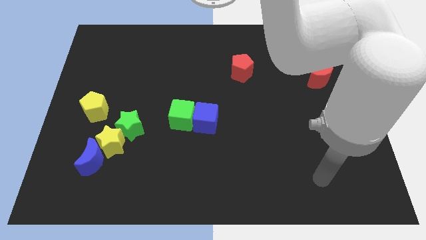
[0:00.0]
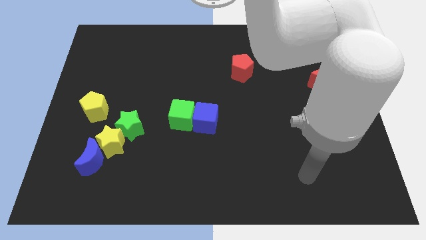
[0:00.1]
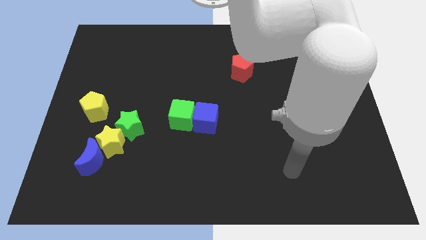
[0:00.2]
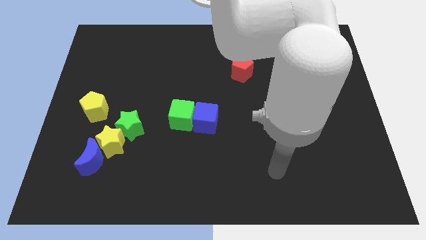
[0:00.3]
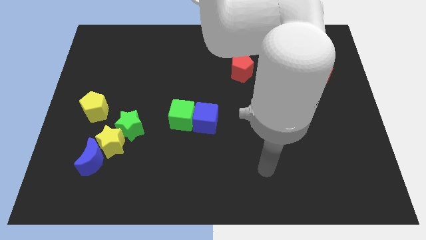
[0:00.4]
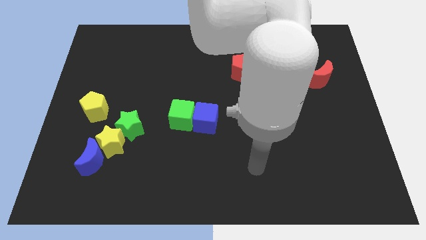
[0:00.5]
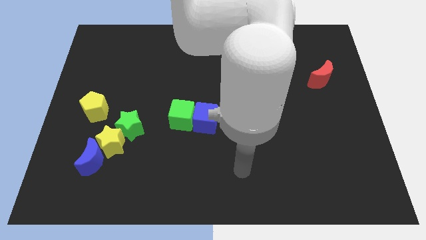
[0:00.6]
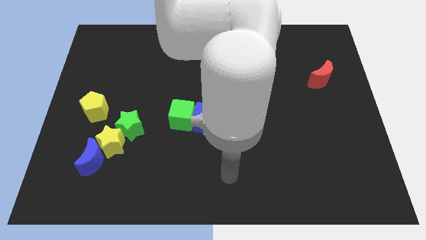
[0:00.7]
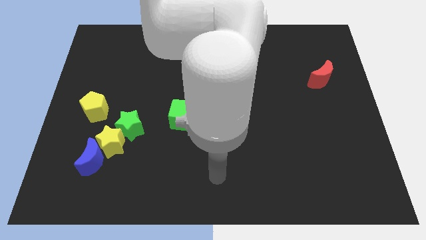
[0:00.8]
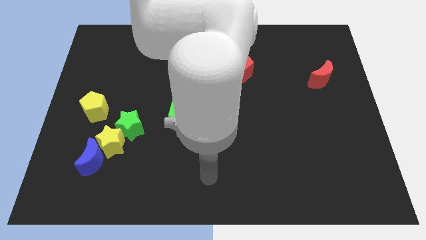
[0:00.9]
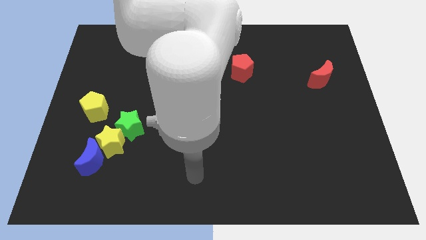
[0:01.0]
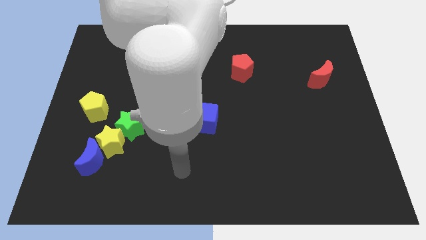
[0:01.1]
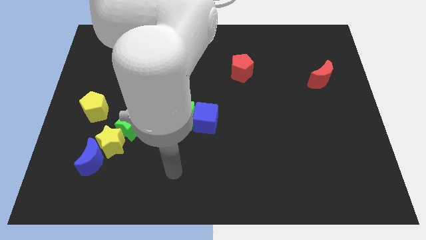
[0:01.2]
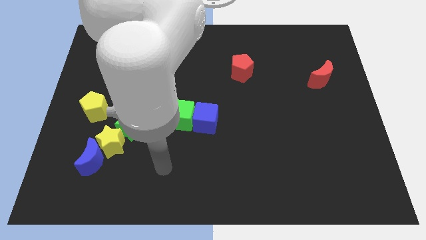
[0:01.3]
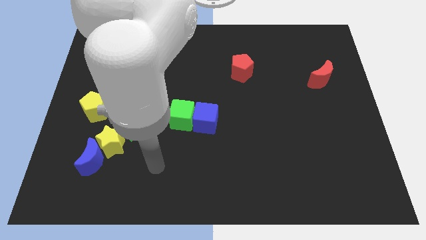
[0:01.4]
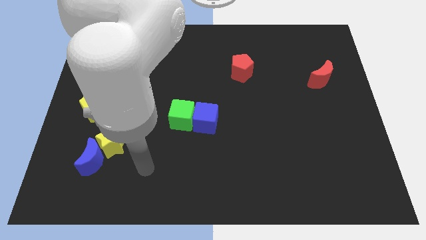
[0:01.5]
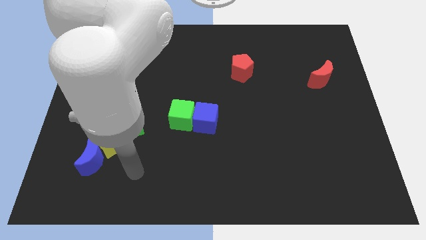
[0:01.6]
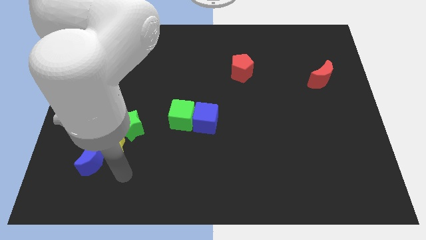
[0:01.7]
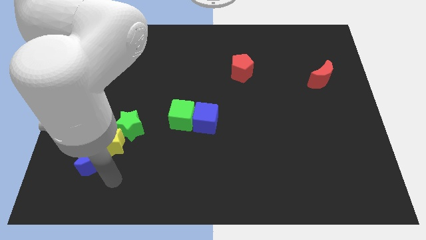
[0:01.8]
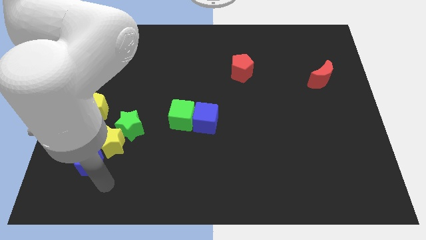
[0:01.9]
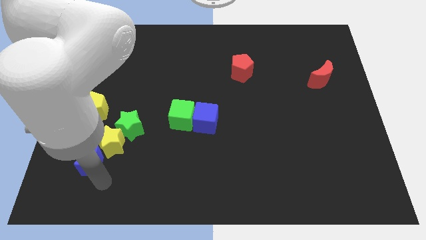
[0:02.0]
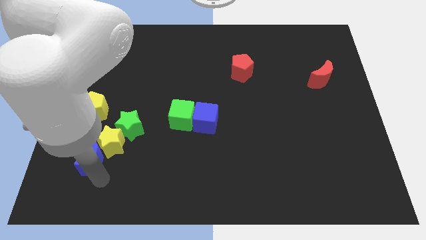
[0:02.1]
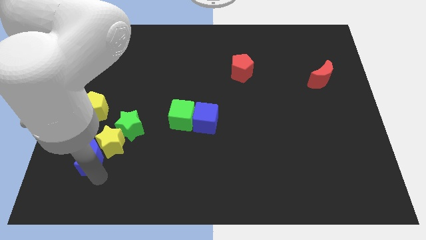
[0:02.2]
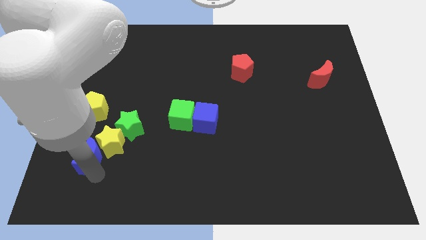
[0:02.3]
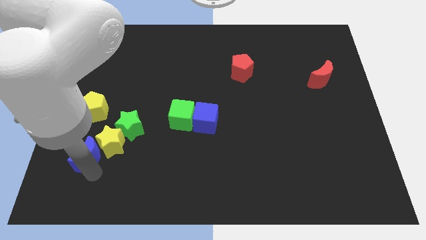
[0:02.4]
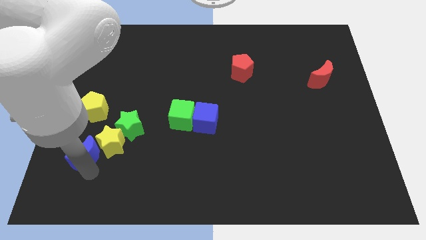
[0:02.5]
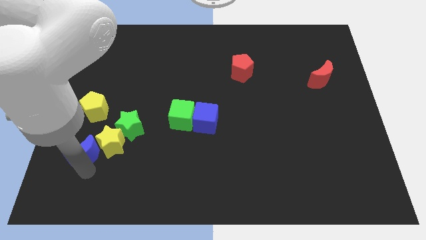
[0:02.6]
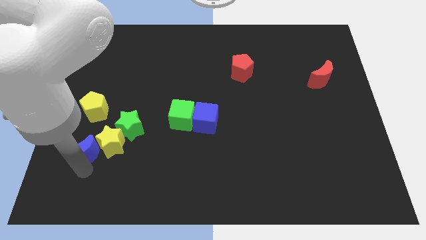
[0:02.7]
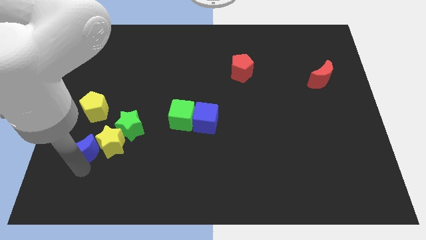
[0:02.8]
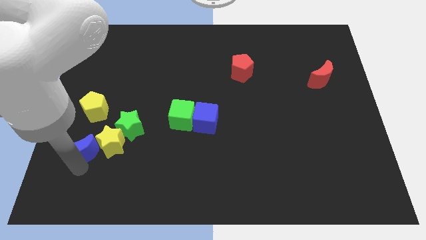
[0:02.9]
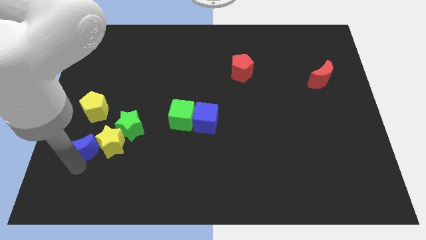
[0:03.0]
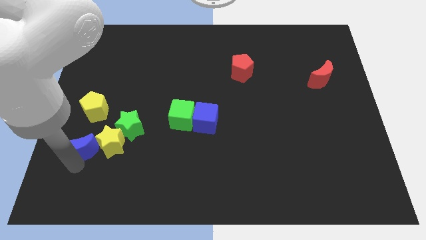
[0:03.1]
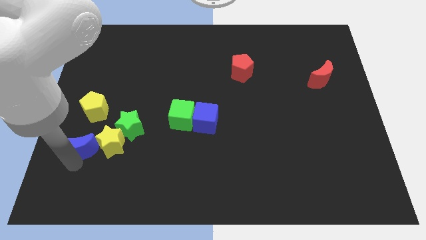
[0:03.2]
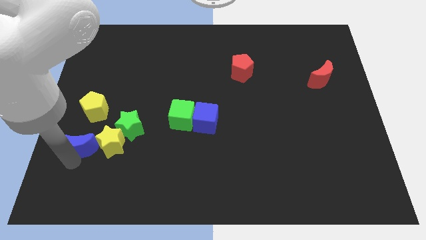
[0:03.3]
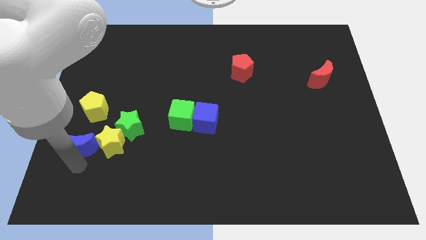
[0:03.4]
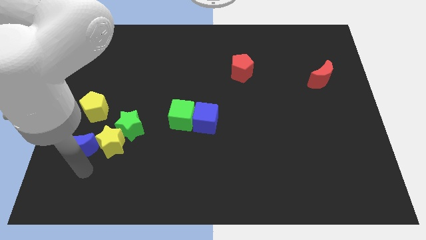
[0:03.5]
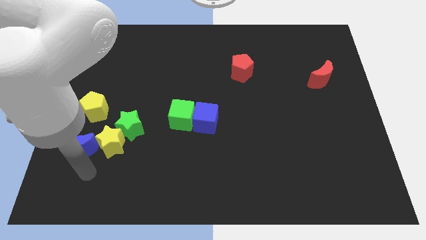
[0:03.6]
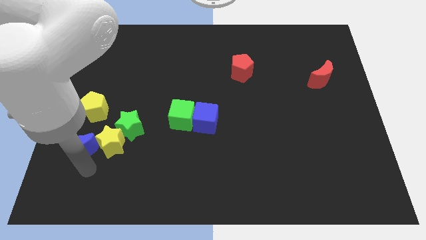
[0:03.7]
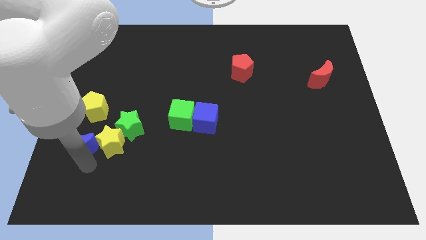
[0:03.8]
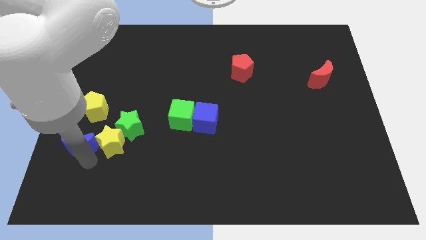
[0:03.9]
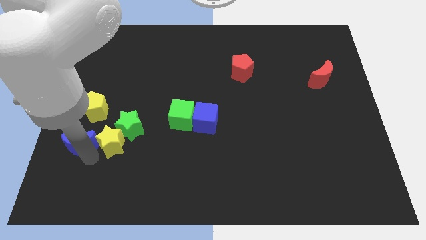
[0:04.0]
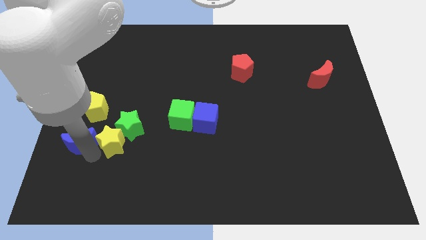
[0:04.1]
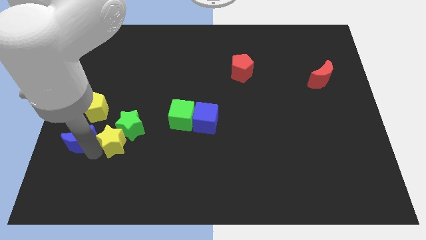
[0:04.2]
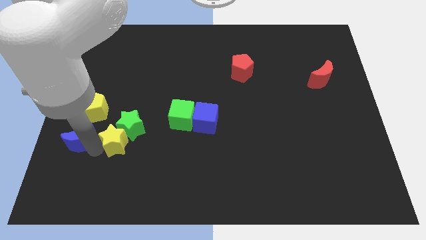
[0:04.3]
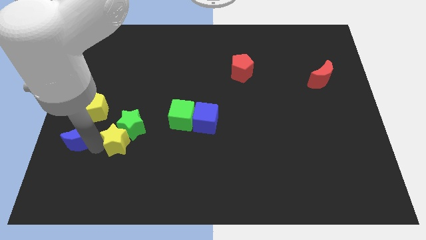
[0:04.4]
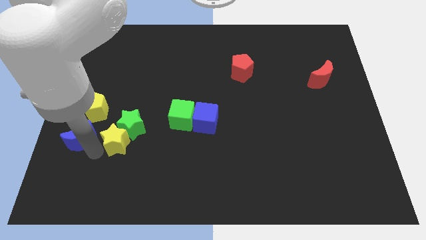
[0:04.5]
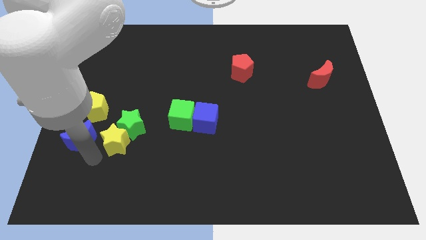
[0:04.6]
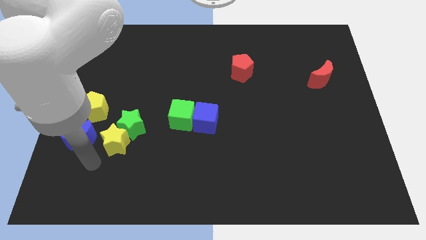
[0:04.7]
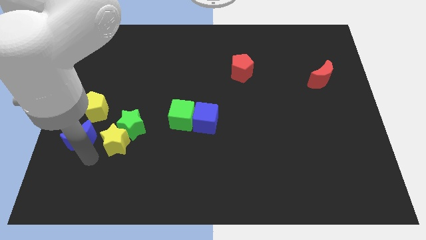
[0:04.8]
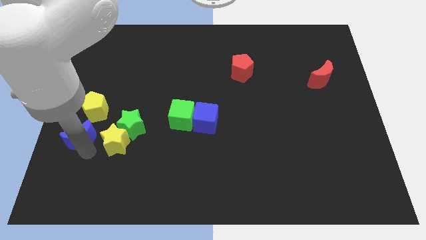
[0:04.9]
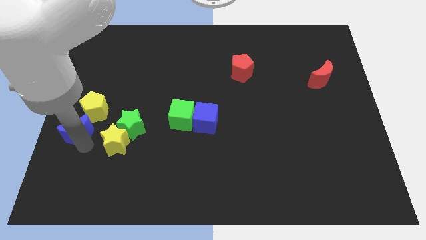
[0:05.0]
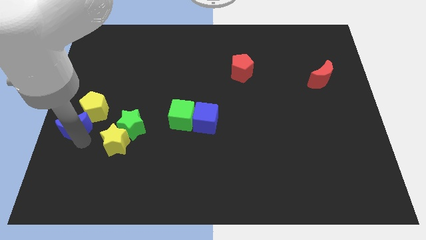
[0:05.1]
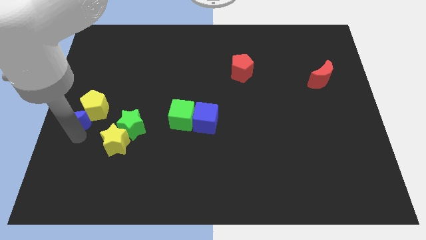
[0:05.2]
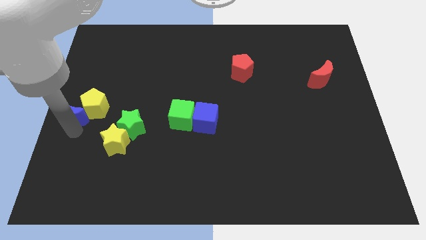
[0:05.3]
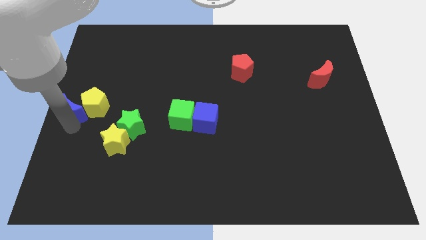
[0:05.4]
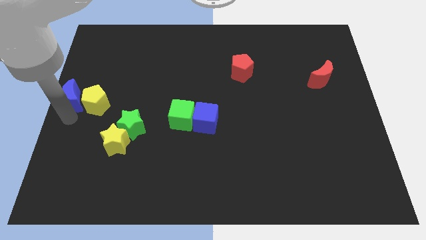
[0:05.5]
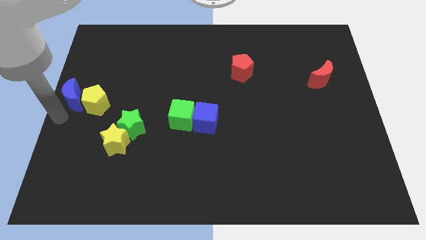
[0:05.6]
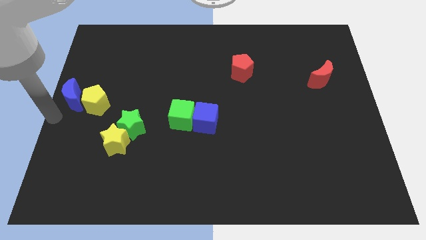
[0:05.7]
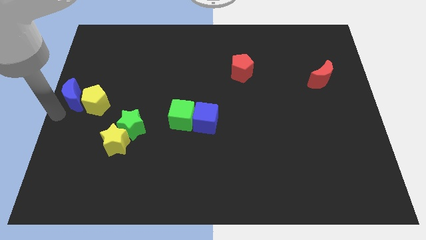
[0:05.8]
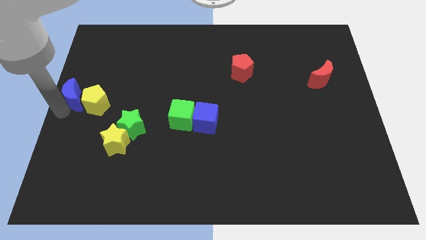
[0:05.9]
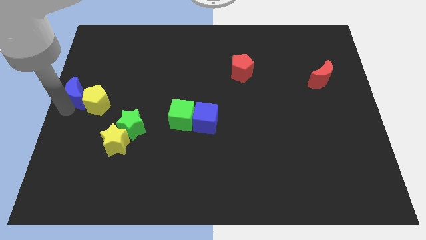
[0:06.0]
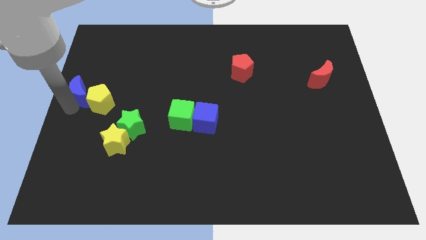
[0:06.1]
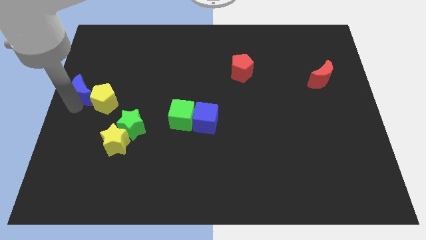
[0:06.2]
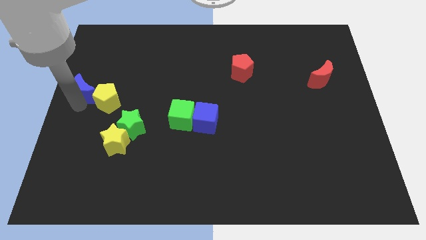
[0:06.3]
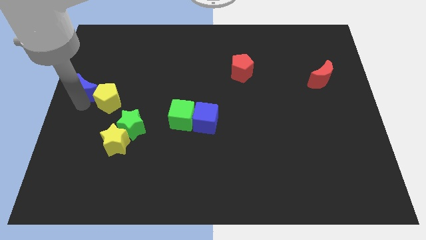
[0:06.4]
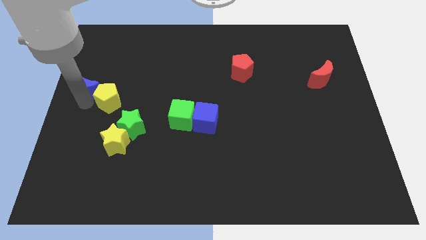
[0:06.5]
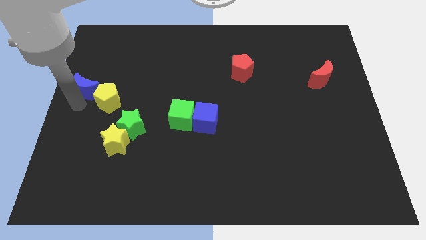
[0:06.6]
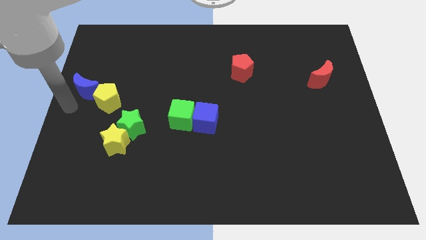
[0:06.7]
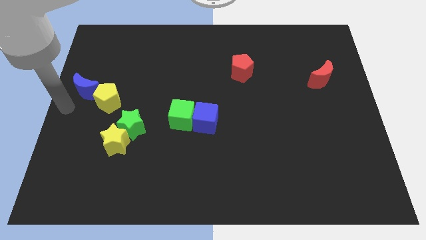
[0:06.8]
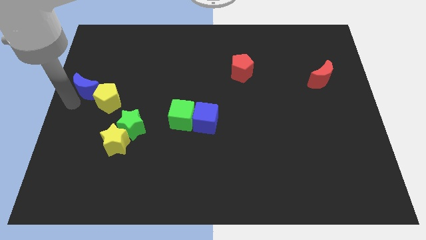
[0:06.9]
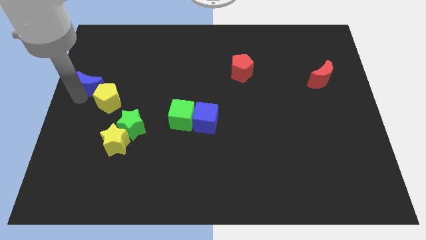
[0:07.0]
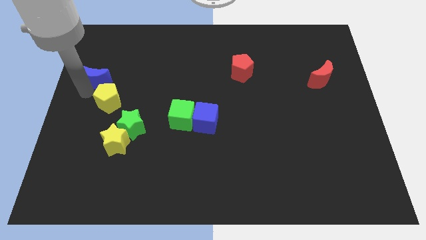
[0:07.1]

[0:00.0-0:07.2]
put the blue moon above the yellow pentagon
